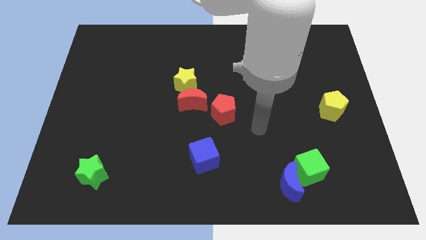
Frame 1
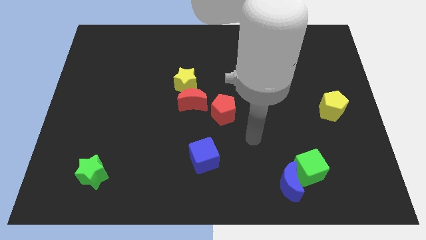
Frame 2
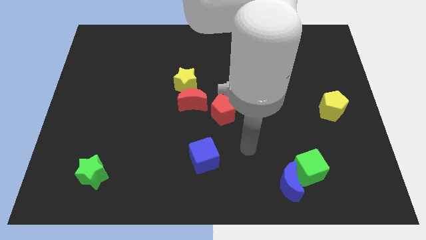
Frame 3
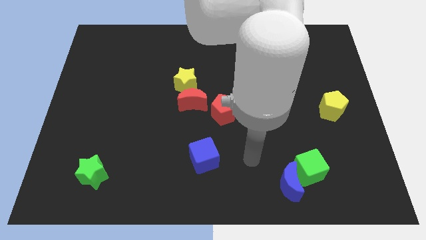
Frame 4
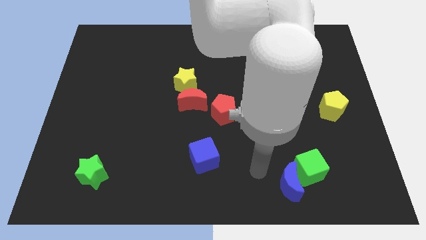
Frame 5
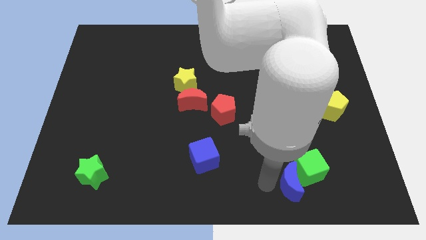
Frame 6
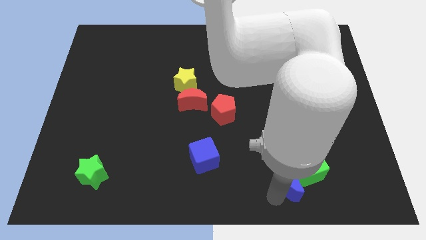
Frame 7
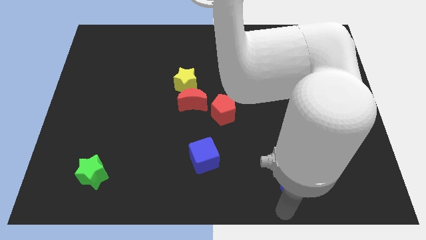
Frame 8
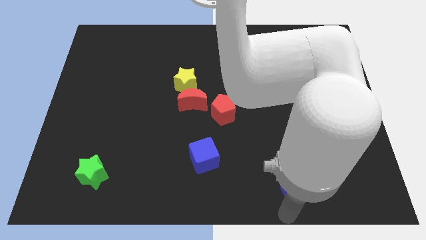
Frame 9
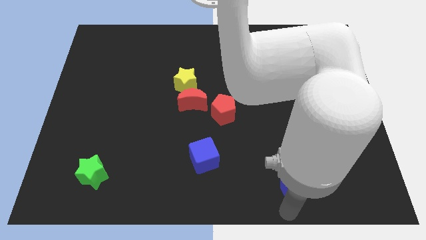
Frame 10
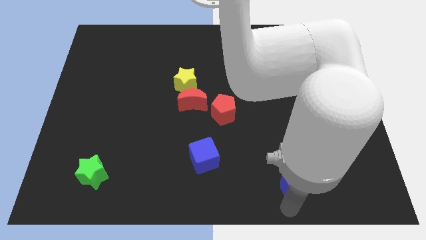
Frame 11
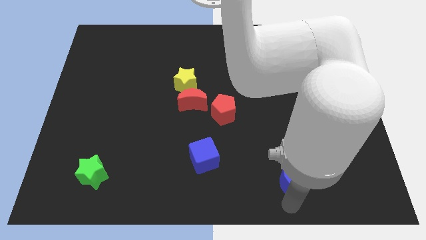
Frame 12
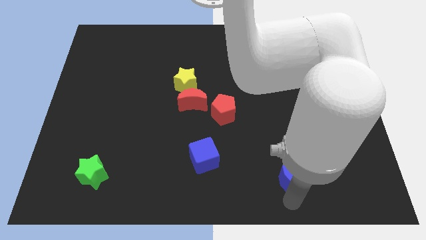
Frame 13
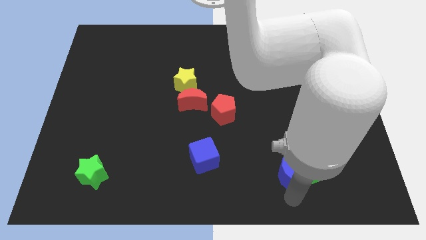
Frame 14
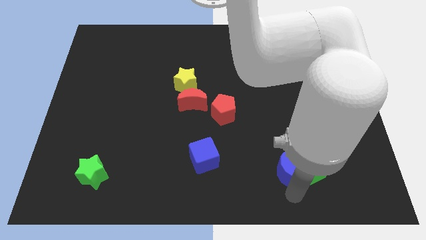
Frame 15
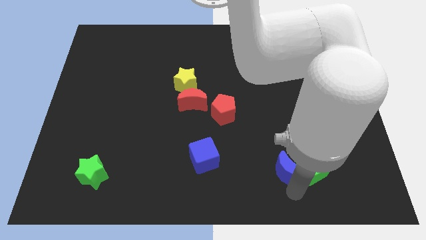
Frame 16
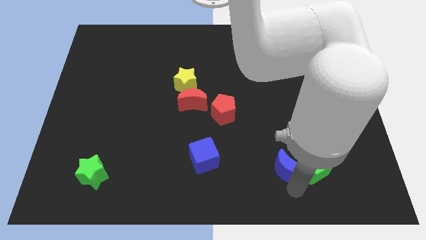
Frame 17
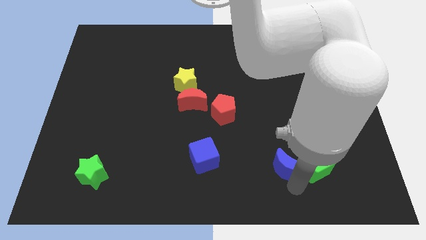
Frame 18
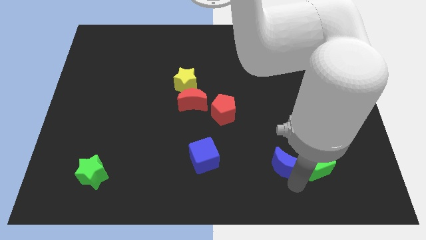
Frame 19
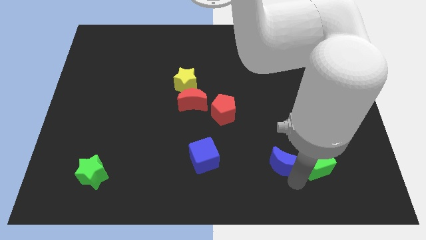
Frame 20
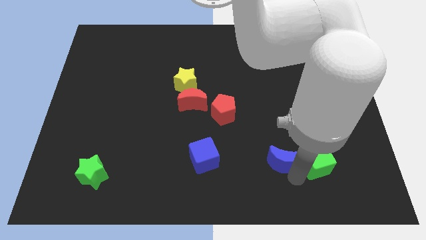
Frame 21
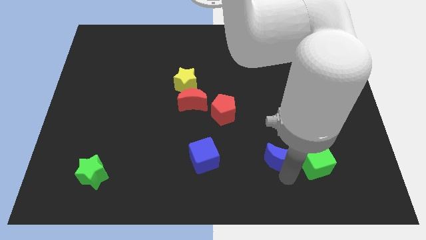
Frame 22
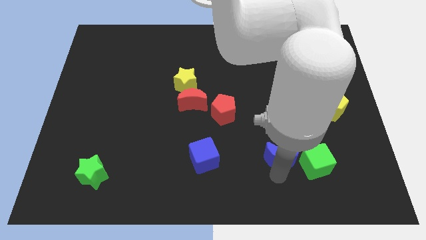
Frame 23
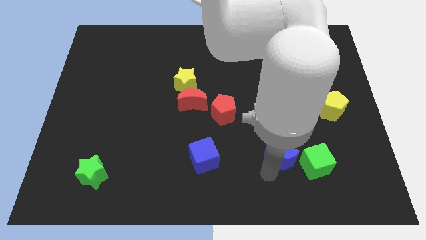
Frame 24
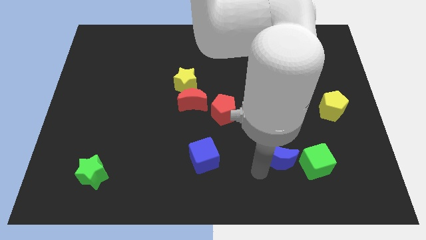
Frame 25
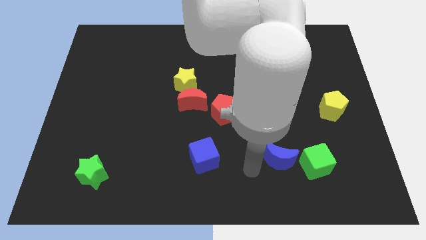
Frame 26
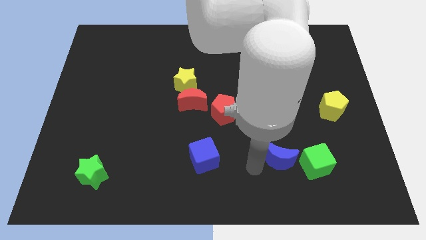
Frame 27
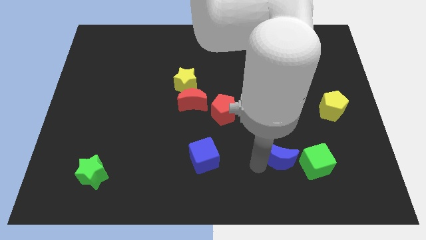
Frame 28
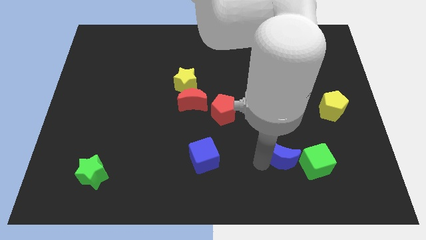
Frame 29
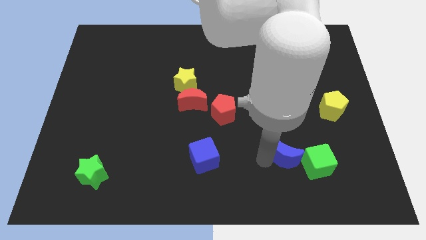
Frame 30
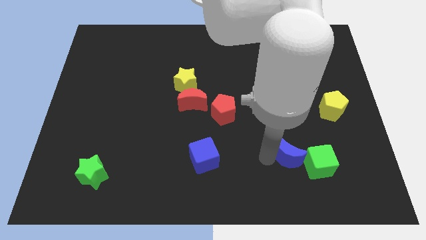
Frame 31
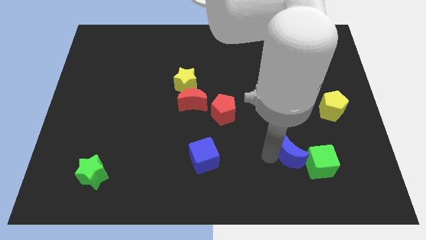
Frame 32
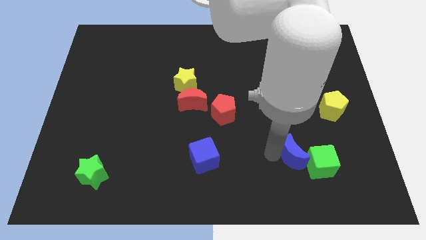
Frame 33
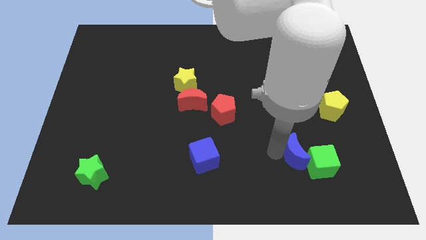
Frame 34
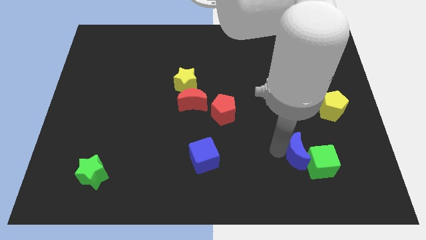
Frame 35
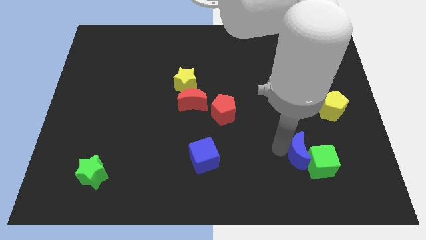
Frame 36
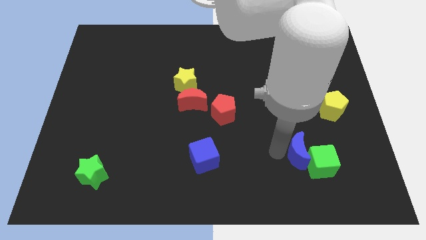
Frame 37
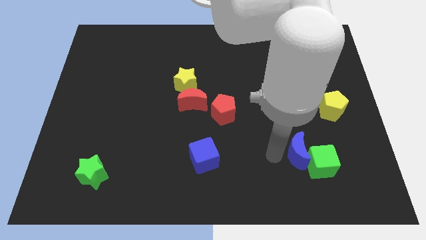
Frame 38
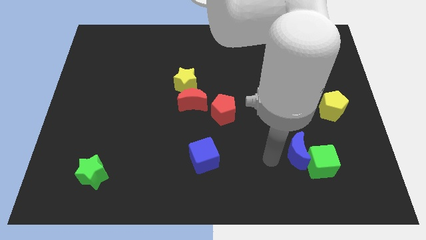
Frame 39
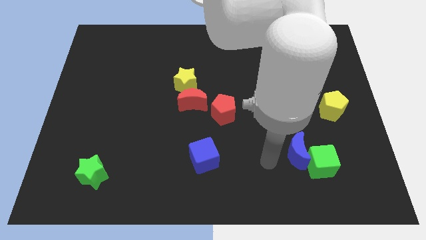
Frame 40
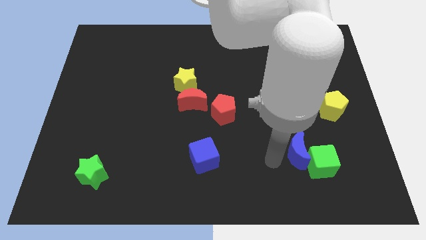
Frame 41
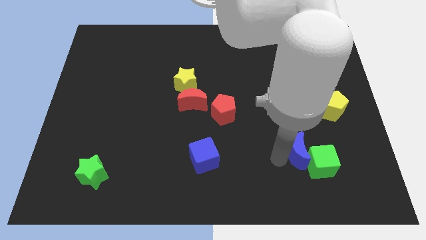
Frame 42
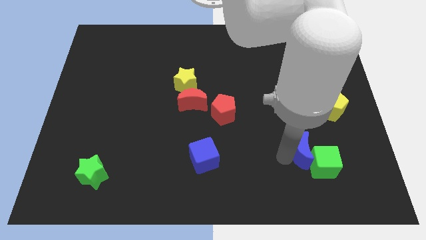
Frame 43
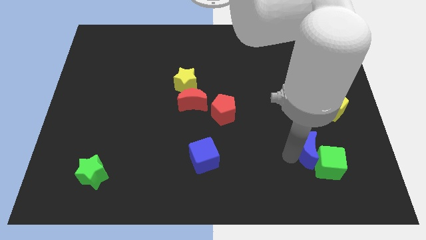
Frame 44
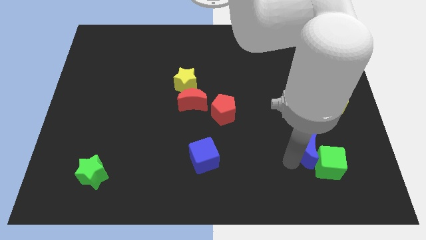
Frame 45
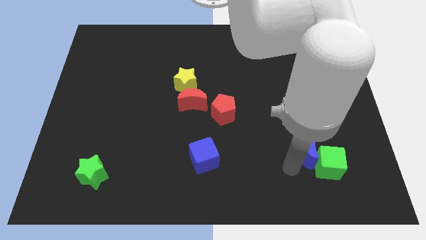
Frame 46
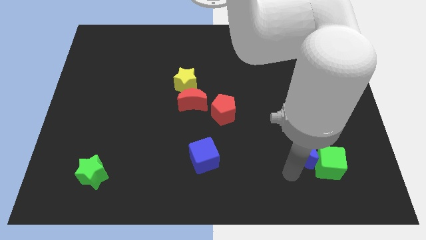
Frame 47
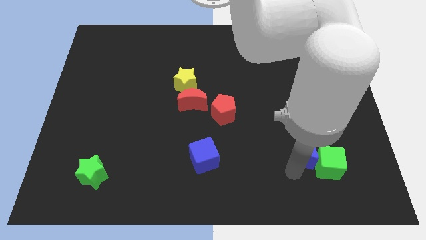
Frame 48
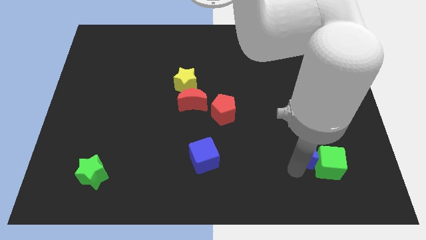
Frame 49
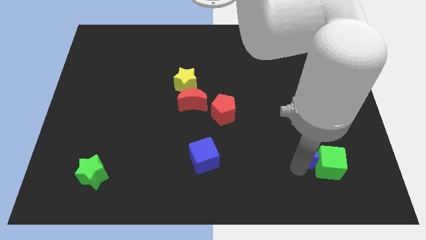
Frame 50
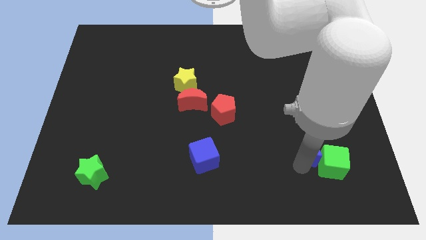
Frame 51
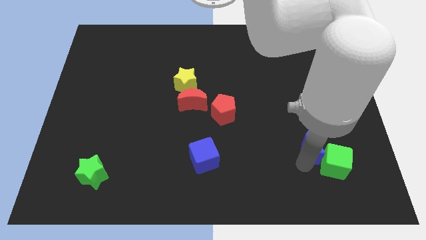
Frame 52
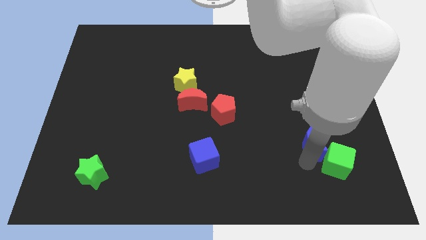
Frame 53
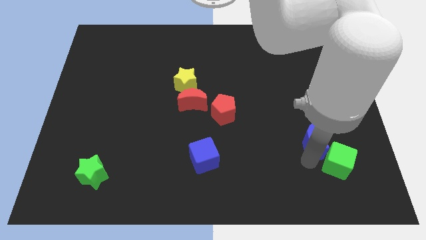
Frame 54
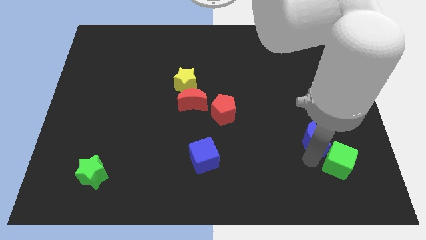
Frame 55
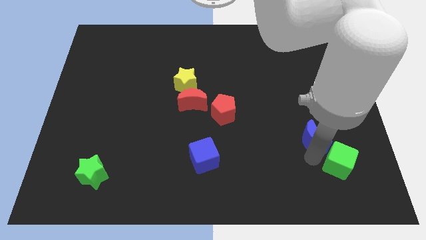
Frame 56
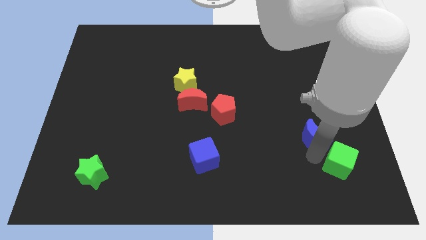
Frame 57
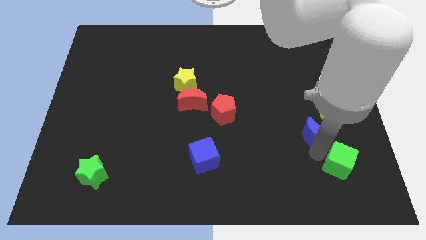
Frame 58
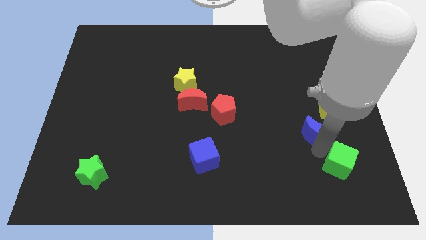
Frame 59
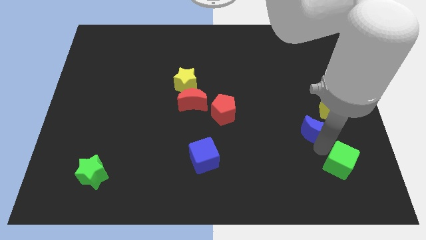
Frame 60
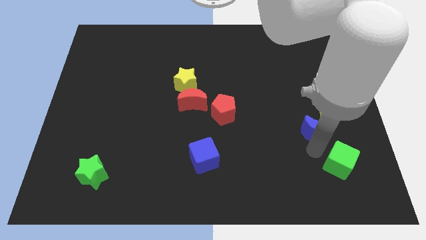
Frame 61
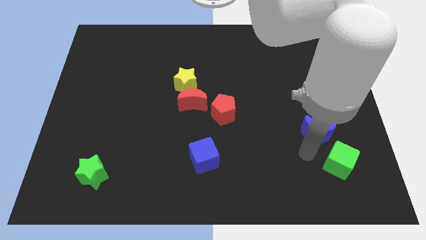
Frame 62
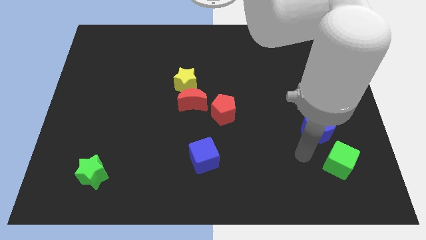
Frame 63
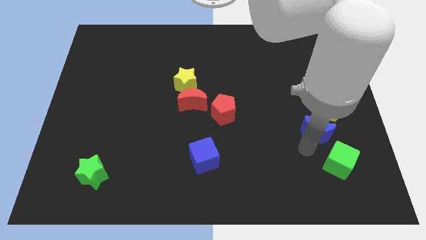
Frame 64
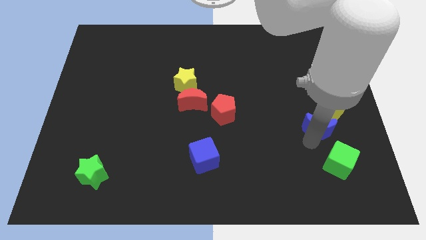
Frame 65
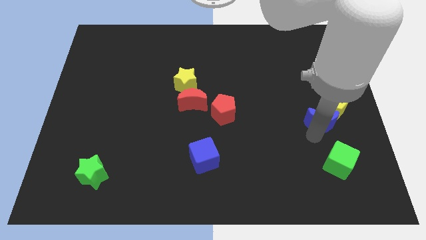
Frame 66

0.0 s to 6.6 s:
put the blue moon close to the yellow pentagon

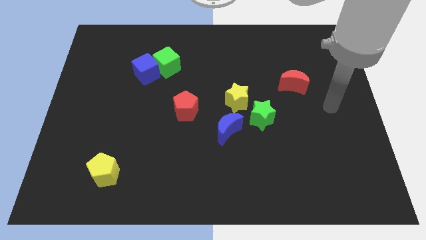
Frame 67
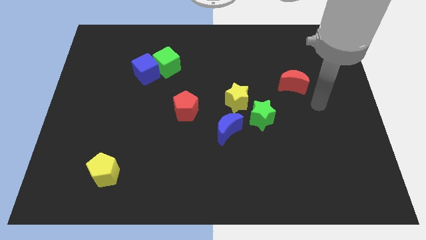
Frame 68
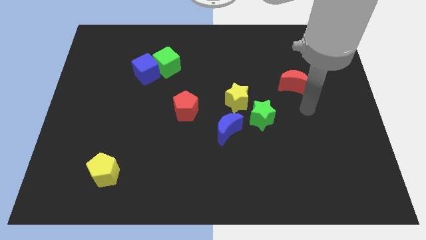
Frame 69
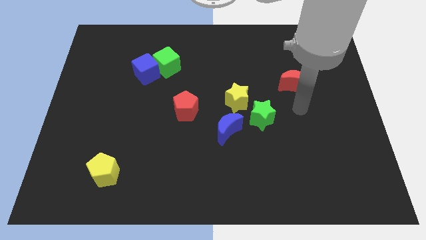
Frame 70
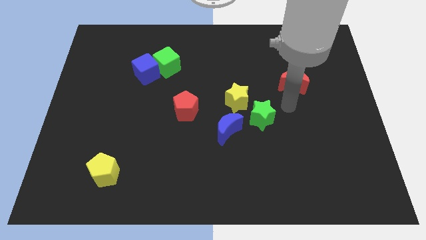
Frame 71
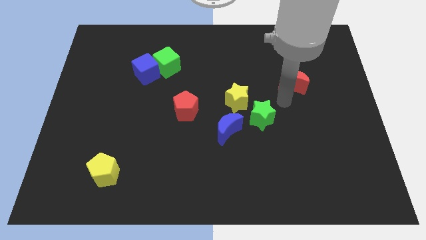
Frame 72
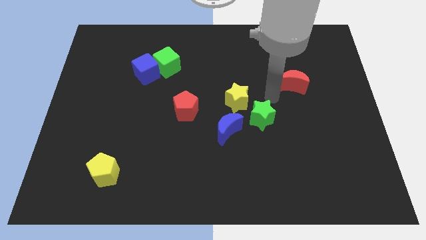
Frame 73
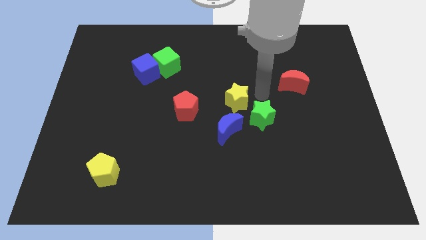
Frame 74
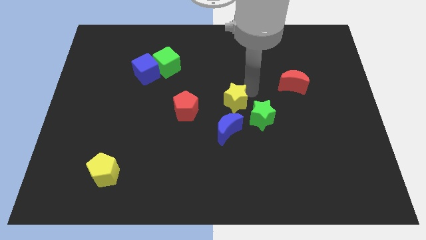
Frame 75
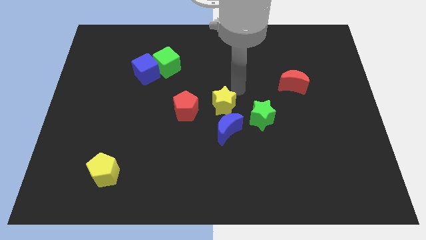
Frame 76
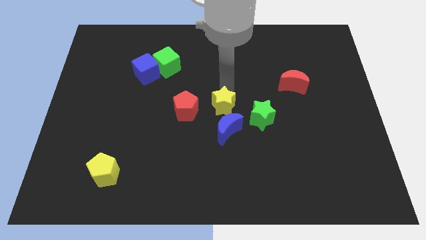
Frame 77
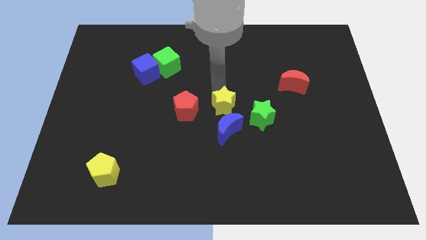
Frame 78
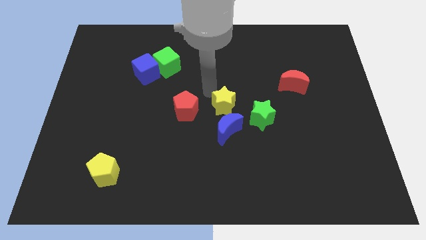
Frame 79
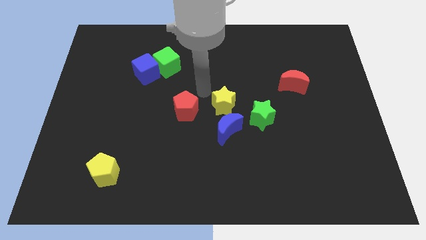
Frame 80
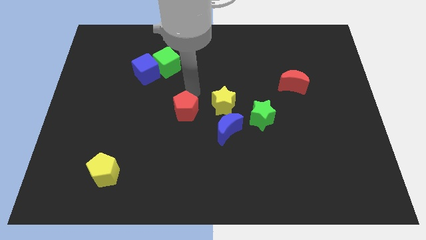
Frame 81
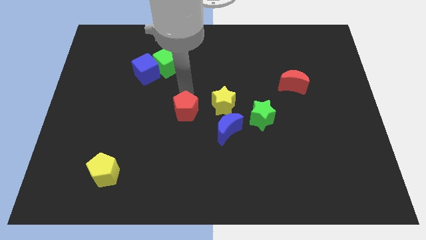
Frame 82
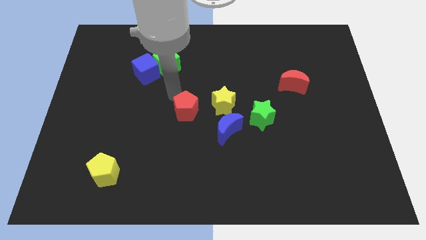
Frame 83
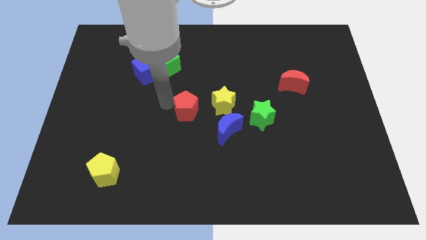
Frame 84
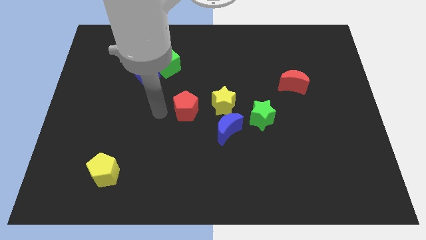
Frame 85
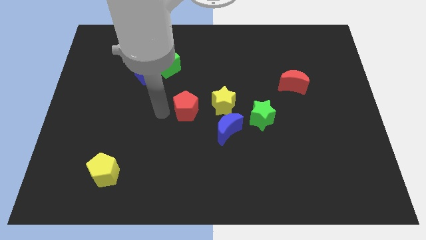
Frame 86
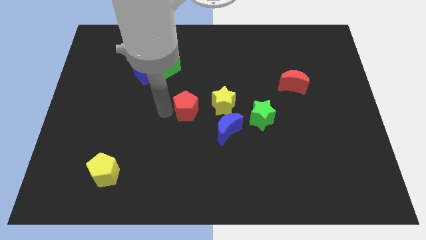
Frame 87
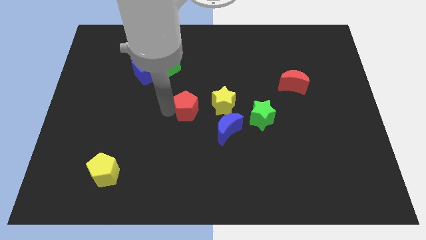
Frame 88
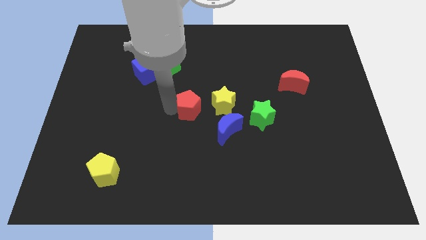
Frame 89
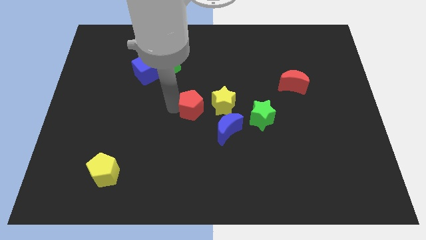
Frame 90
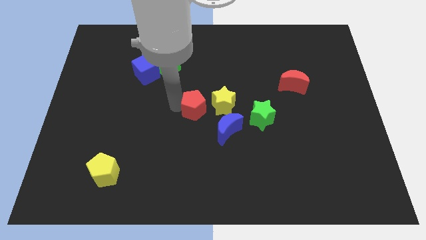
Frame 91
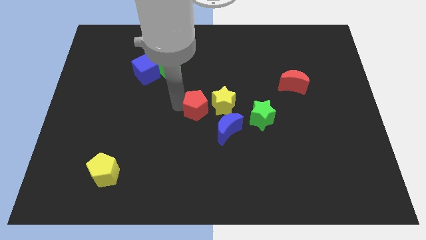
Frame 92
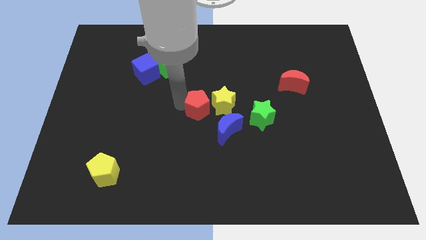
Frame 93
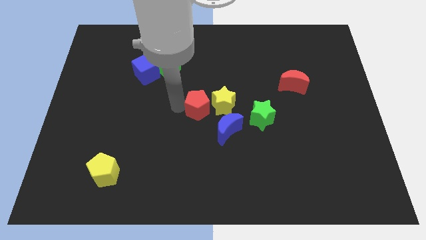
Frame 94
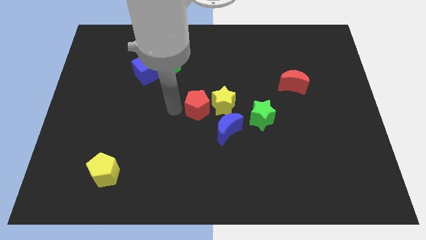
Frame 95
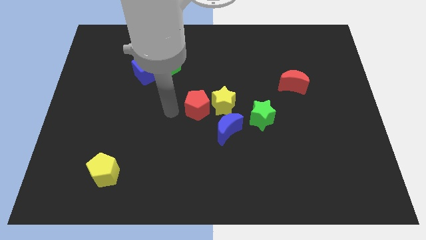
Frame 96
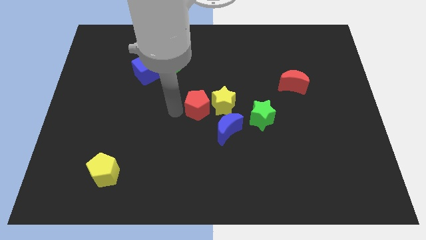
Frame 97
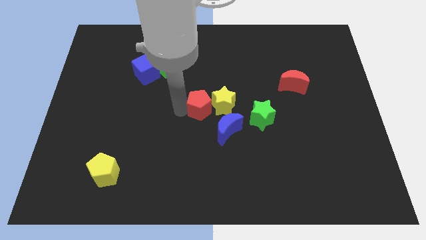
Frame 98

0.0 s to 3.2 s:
move the red pentagon to the yellow star
